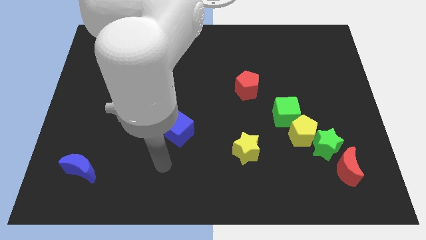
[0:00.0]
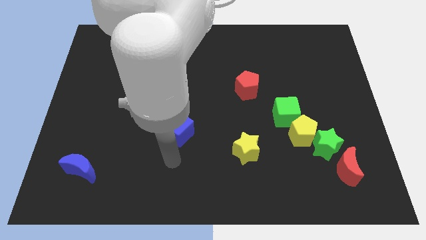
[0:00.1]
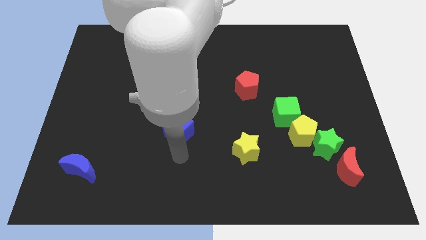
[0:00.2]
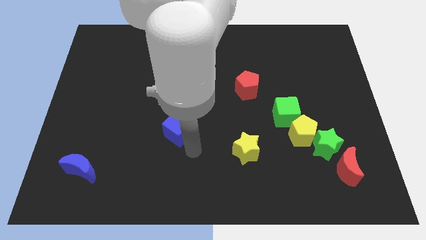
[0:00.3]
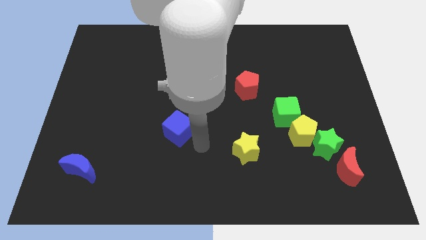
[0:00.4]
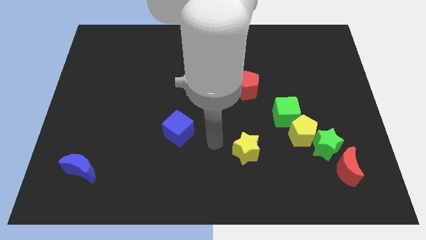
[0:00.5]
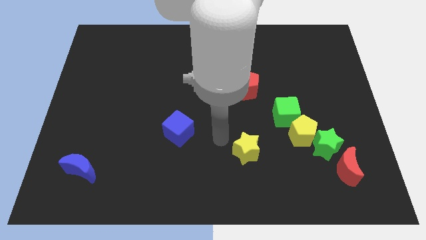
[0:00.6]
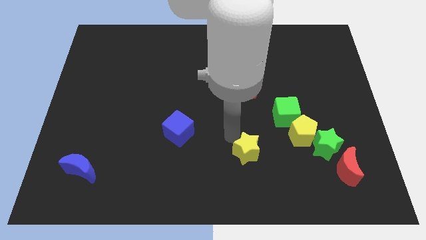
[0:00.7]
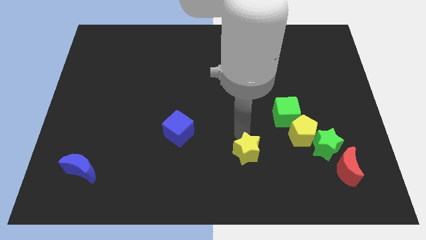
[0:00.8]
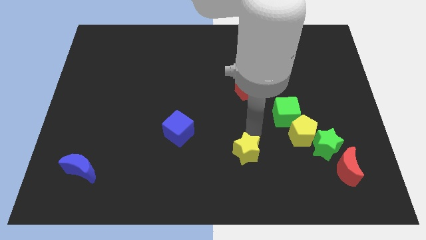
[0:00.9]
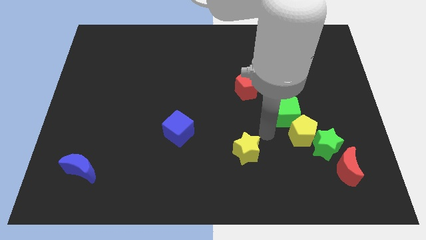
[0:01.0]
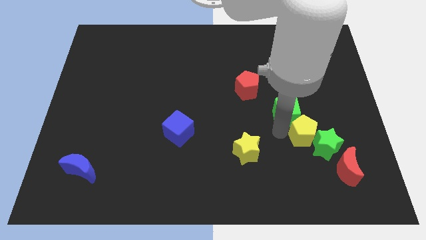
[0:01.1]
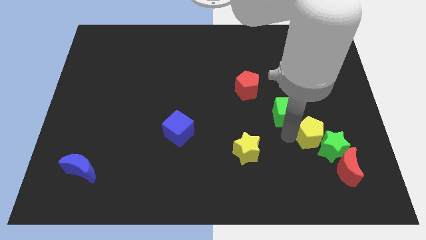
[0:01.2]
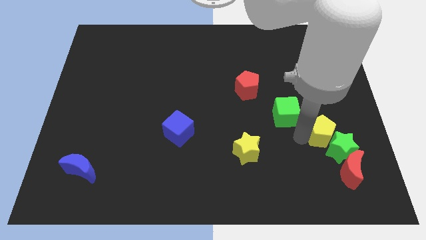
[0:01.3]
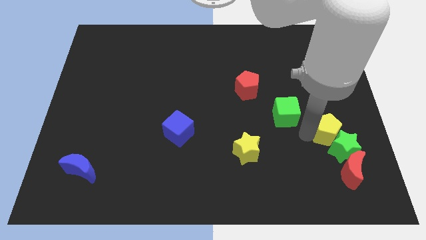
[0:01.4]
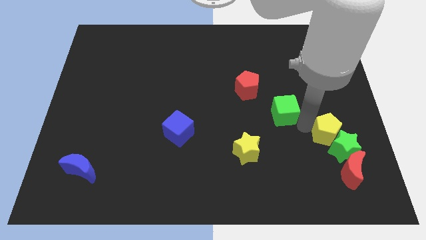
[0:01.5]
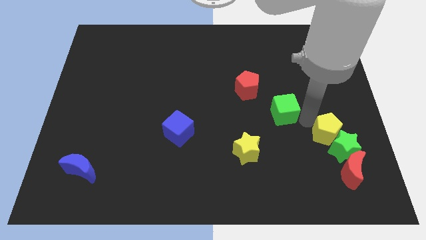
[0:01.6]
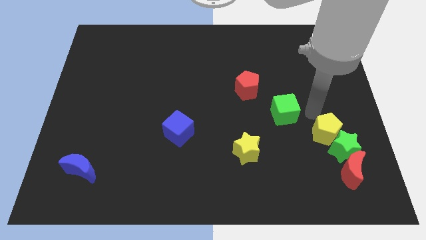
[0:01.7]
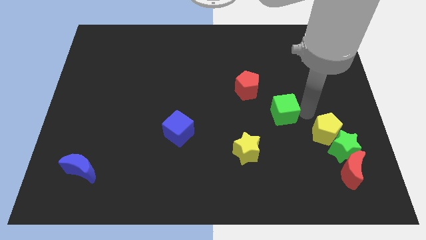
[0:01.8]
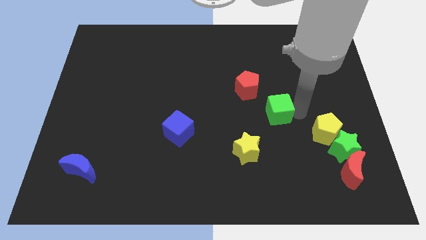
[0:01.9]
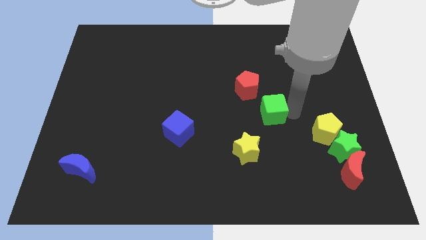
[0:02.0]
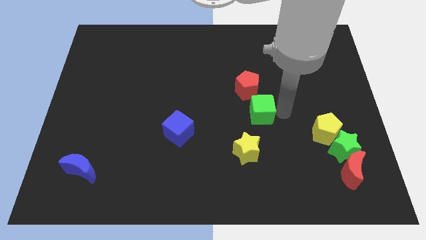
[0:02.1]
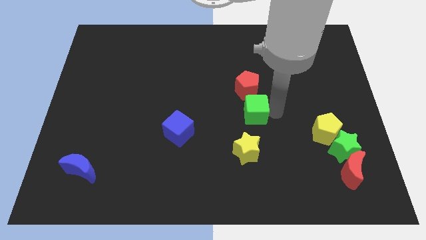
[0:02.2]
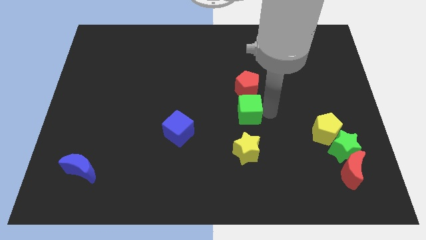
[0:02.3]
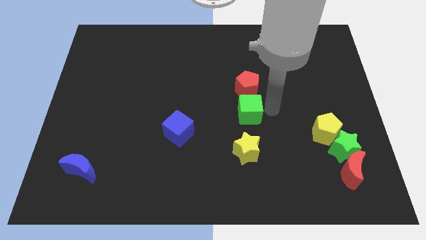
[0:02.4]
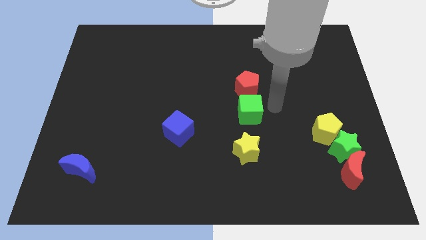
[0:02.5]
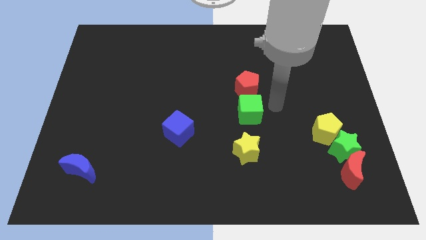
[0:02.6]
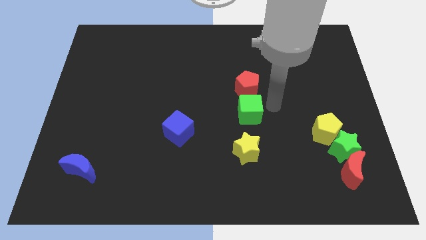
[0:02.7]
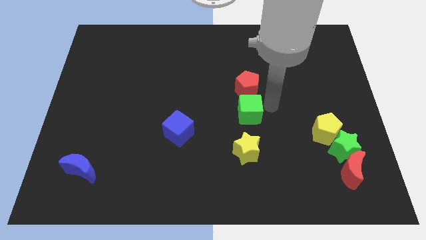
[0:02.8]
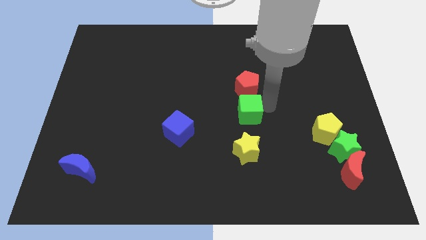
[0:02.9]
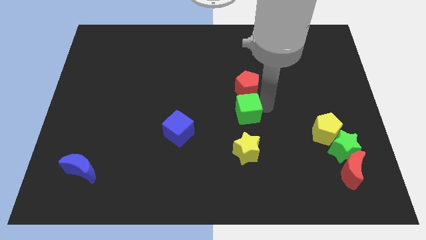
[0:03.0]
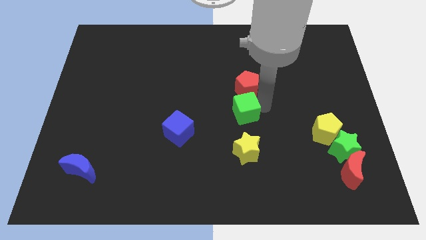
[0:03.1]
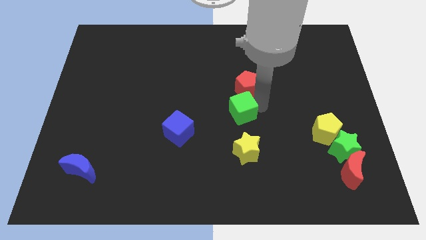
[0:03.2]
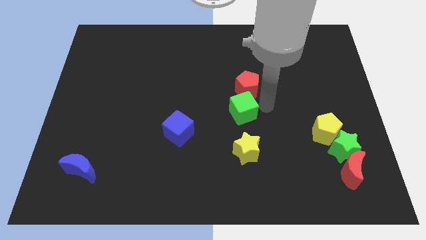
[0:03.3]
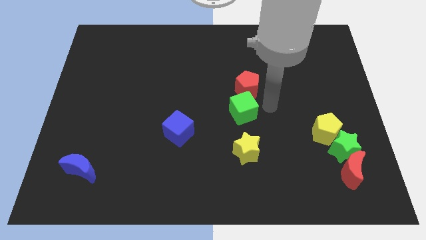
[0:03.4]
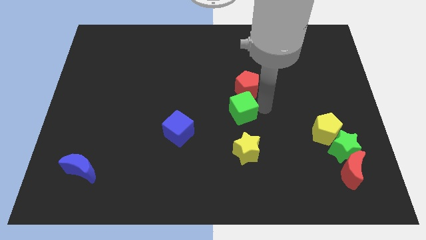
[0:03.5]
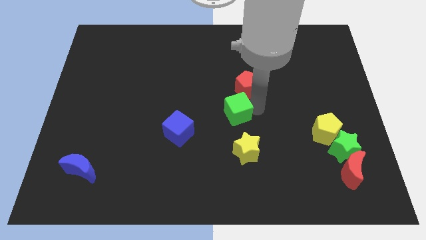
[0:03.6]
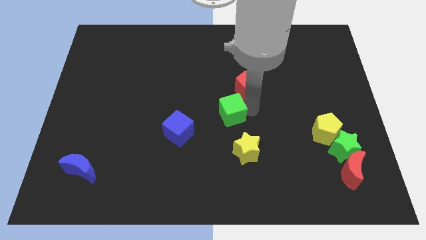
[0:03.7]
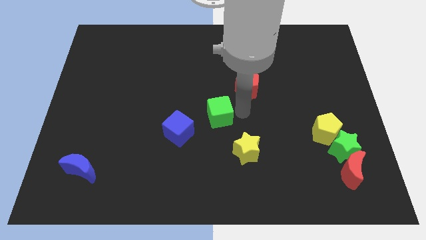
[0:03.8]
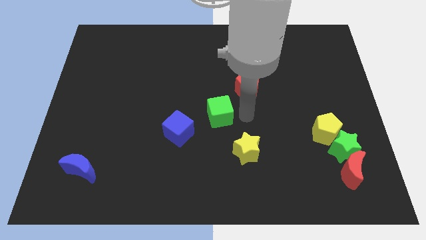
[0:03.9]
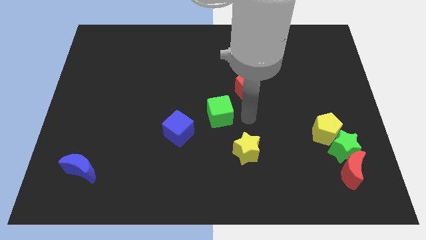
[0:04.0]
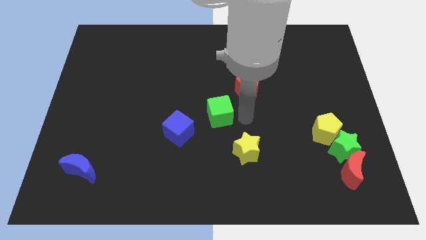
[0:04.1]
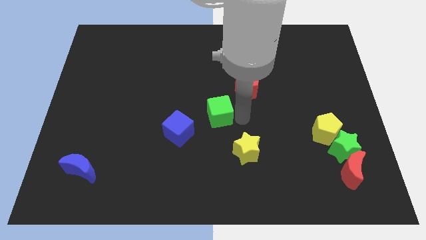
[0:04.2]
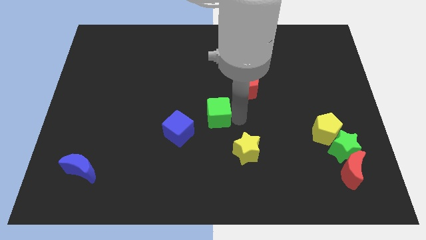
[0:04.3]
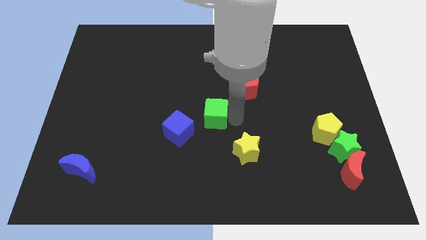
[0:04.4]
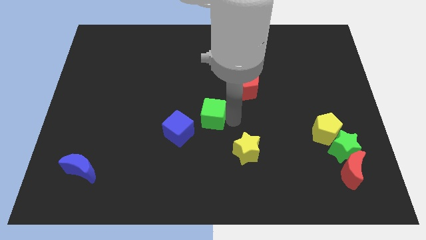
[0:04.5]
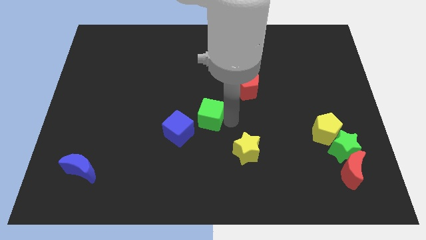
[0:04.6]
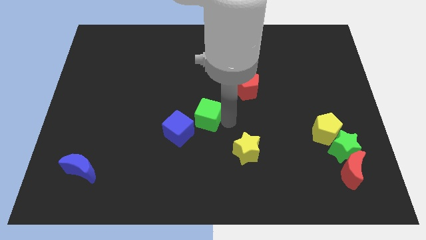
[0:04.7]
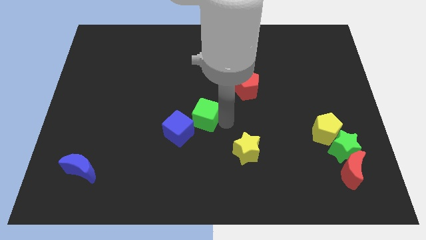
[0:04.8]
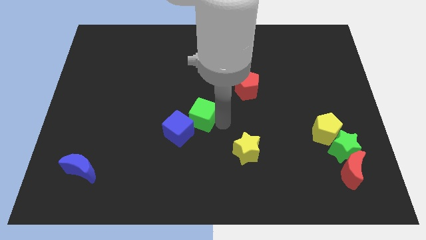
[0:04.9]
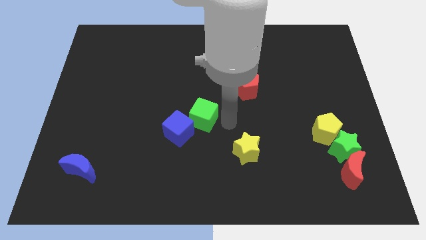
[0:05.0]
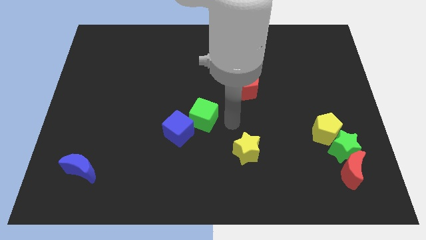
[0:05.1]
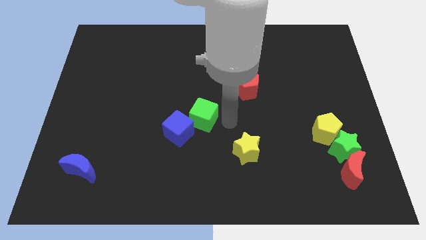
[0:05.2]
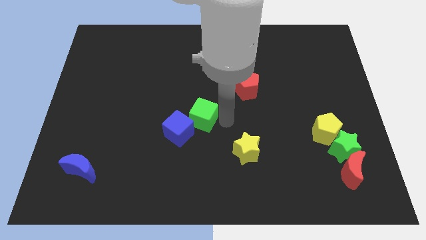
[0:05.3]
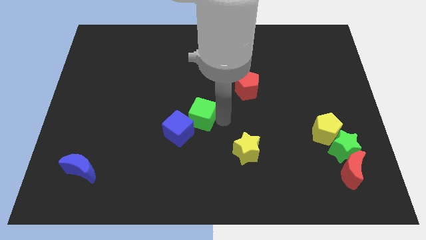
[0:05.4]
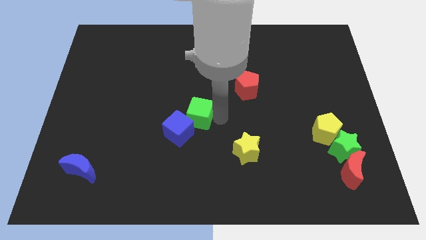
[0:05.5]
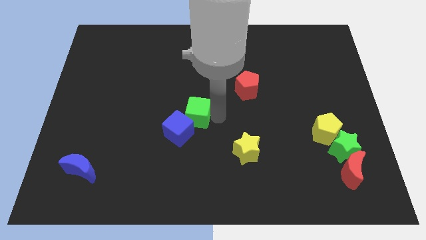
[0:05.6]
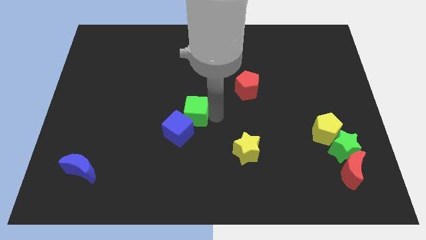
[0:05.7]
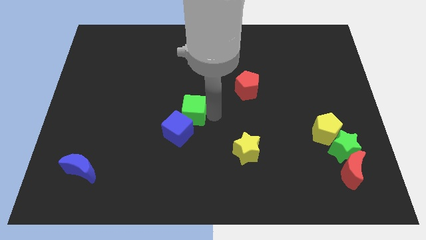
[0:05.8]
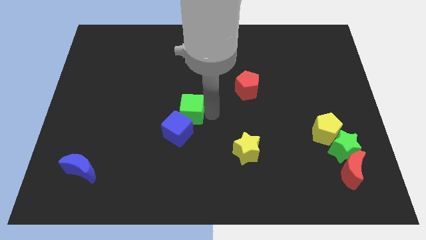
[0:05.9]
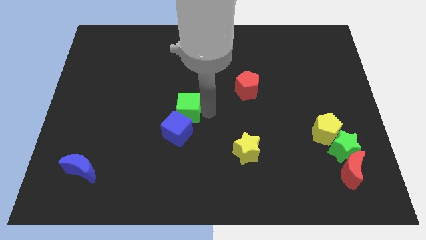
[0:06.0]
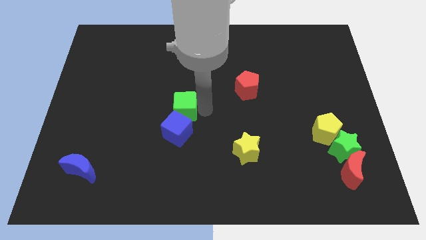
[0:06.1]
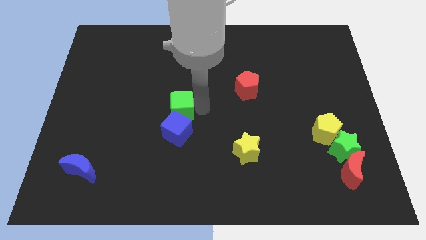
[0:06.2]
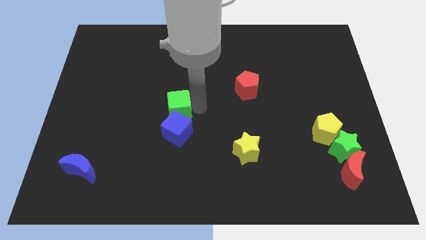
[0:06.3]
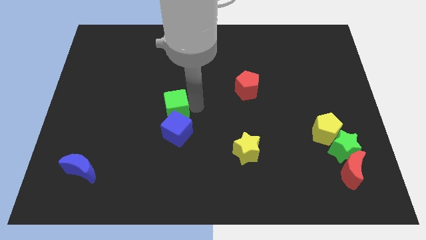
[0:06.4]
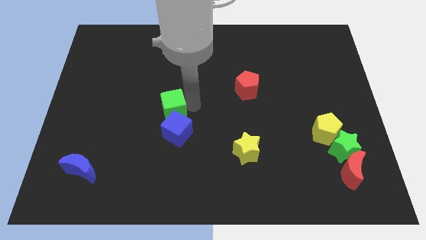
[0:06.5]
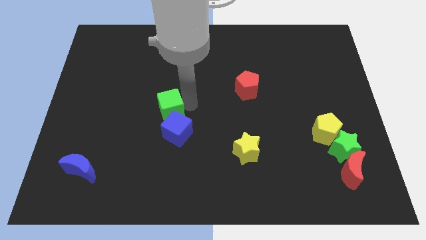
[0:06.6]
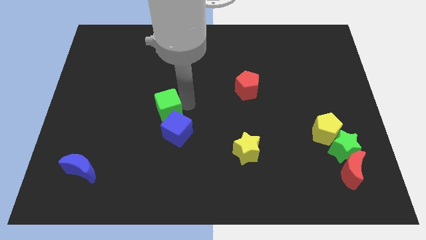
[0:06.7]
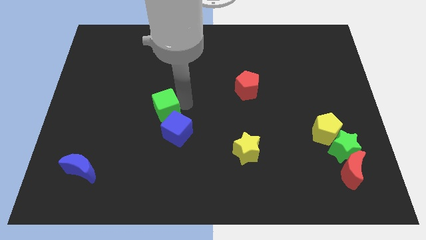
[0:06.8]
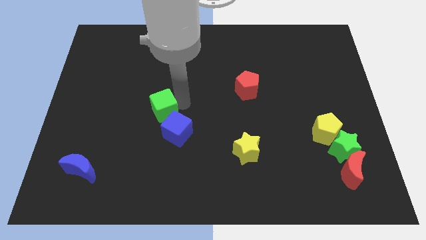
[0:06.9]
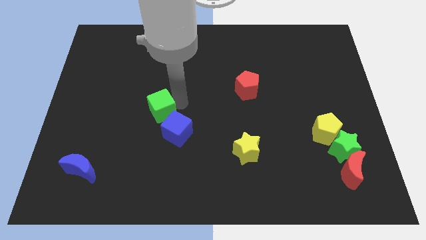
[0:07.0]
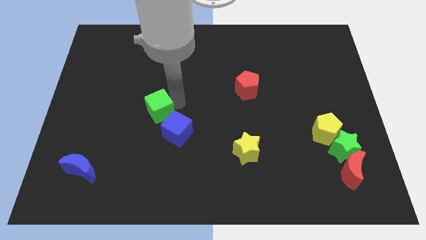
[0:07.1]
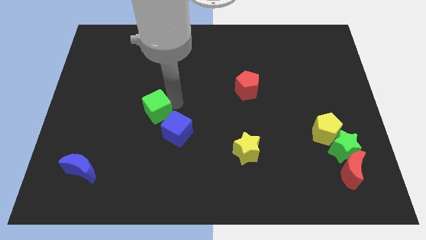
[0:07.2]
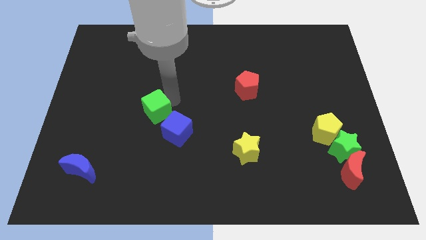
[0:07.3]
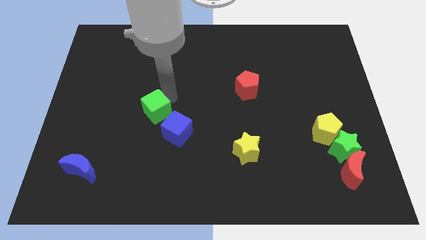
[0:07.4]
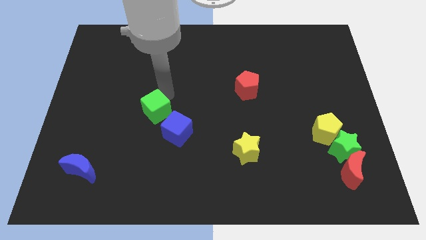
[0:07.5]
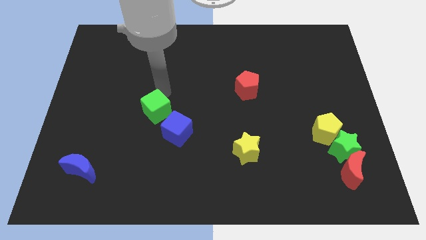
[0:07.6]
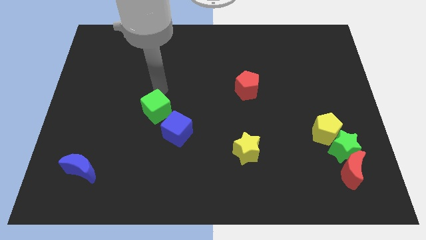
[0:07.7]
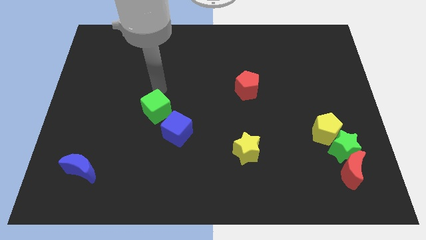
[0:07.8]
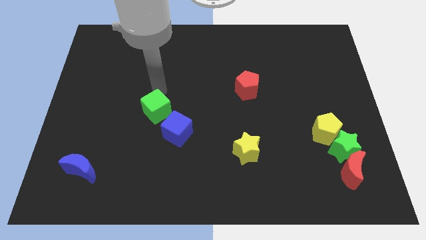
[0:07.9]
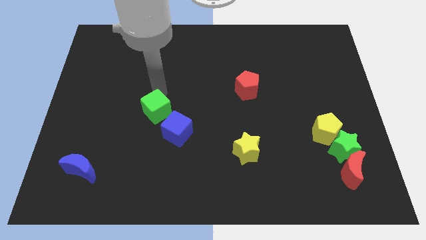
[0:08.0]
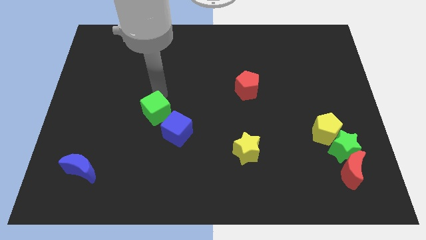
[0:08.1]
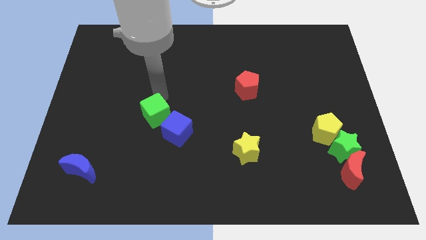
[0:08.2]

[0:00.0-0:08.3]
slide the green cube left of the blue cube
